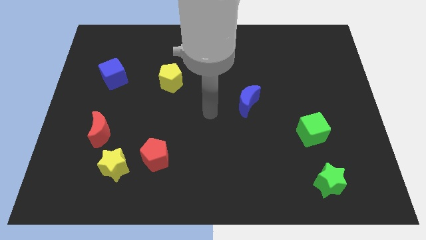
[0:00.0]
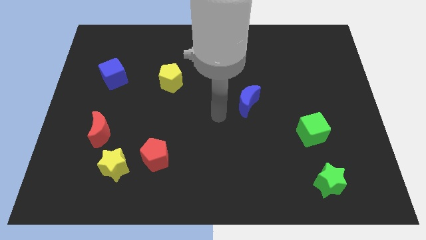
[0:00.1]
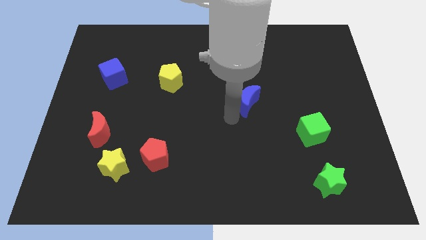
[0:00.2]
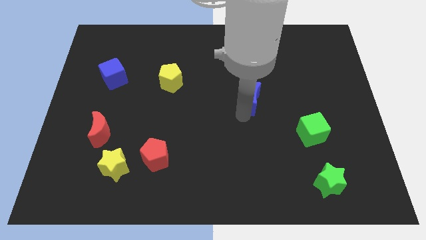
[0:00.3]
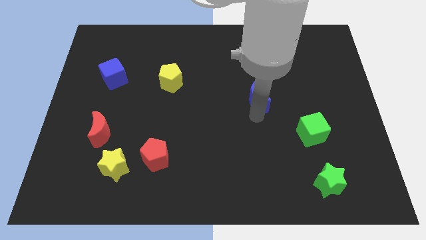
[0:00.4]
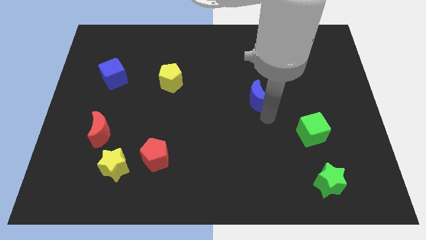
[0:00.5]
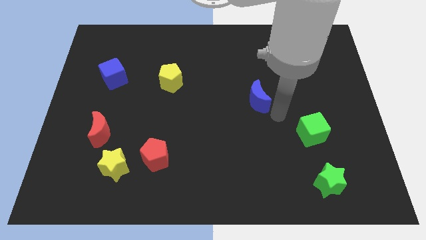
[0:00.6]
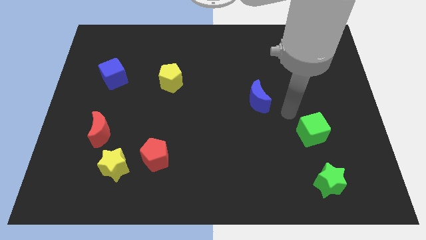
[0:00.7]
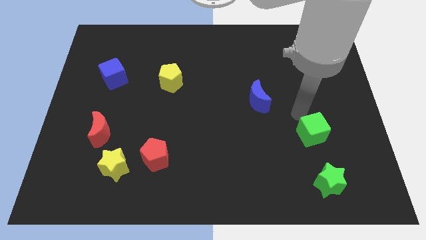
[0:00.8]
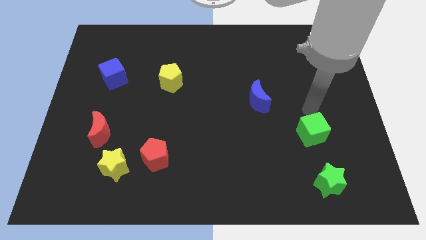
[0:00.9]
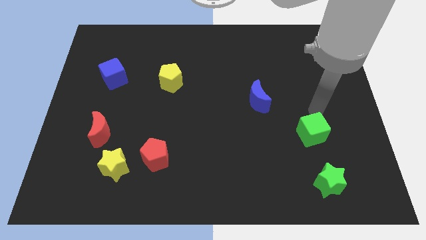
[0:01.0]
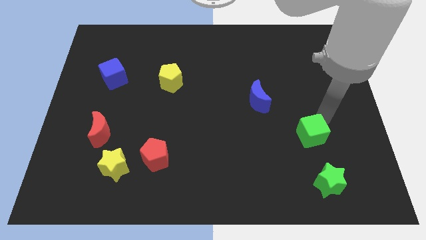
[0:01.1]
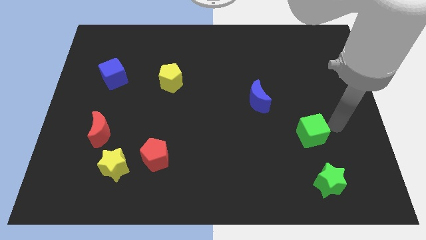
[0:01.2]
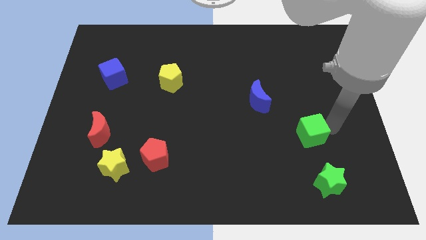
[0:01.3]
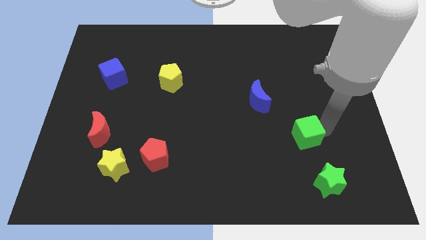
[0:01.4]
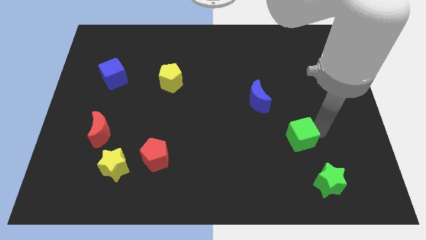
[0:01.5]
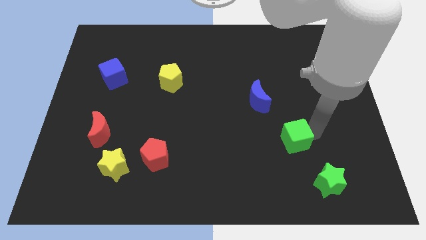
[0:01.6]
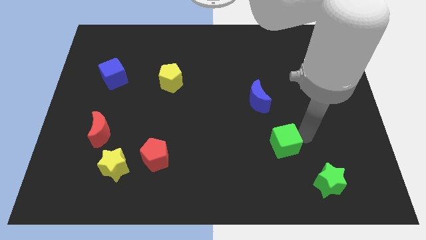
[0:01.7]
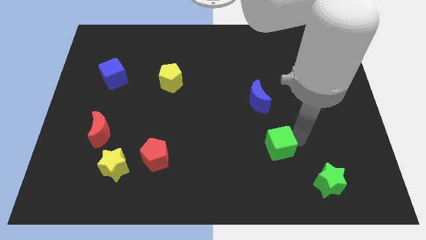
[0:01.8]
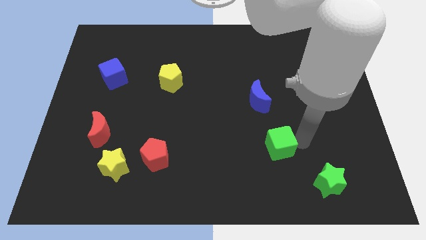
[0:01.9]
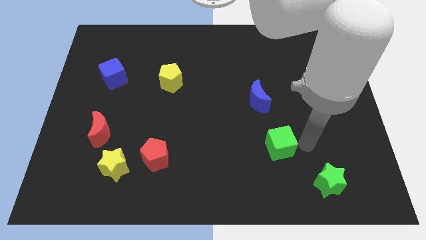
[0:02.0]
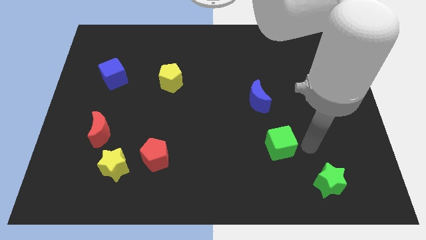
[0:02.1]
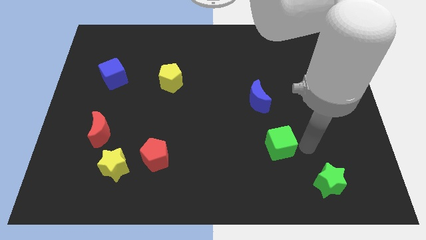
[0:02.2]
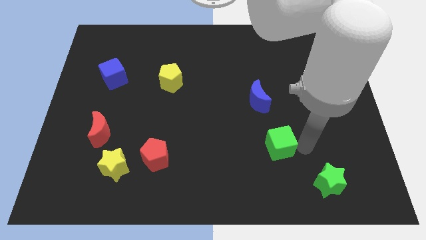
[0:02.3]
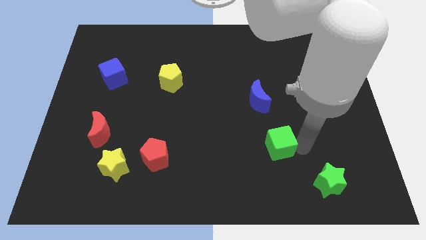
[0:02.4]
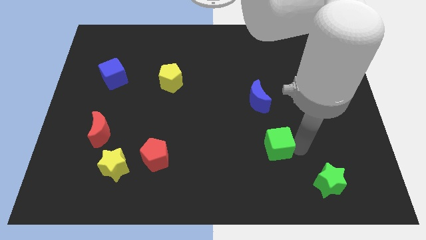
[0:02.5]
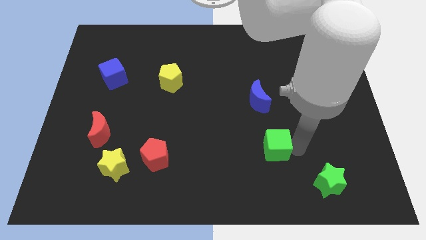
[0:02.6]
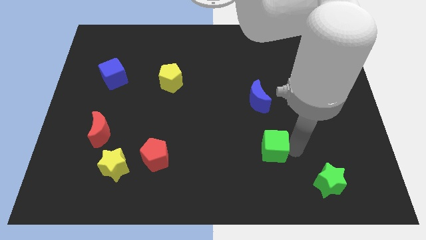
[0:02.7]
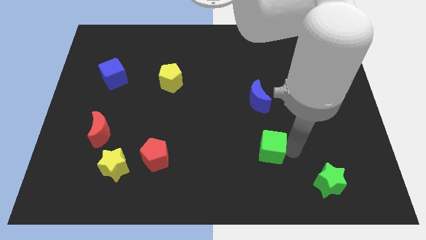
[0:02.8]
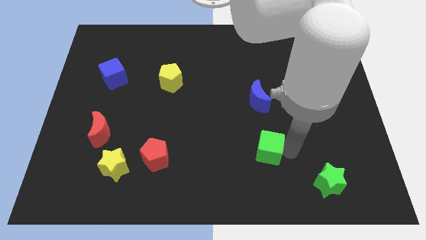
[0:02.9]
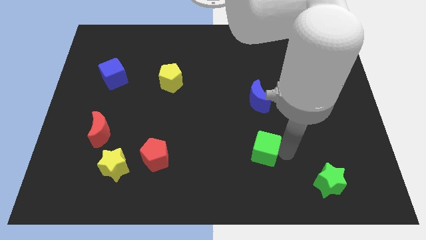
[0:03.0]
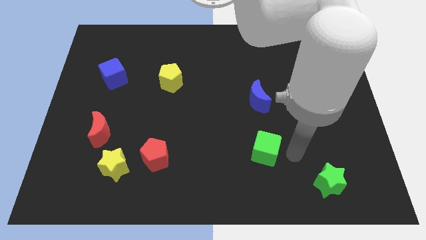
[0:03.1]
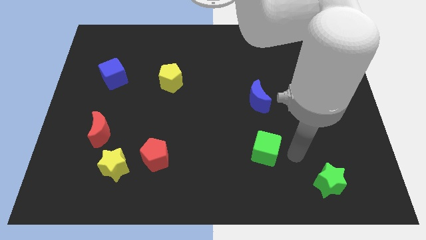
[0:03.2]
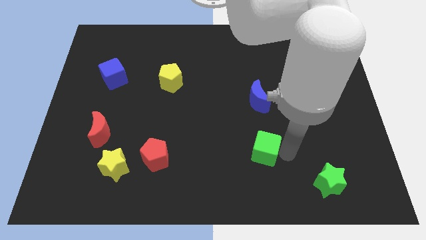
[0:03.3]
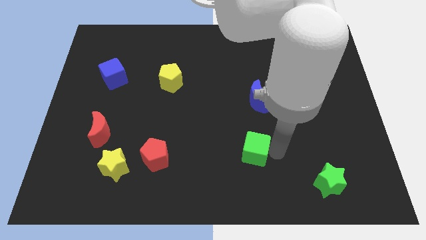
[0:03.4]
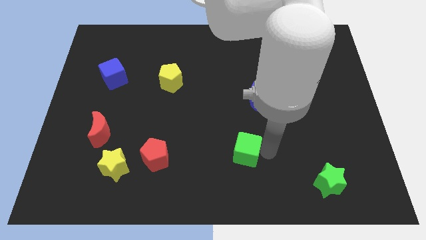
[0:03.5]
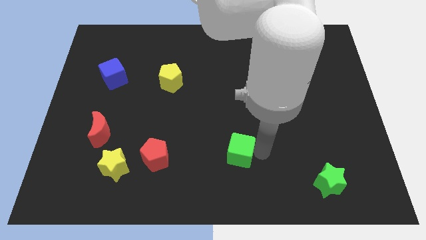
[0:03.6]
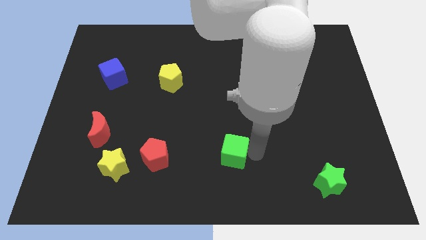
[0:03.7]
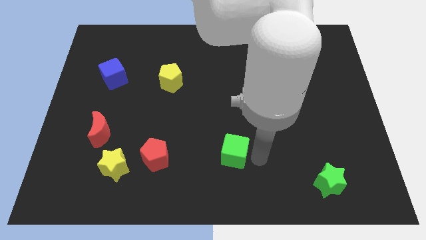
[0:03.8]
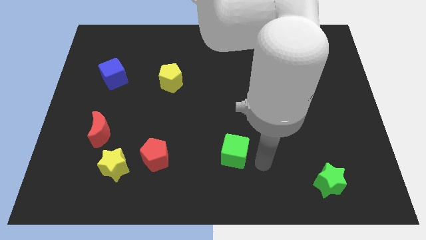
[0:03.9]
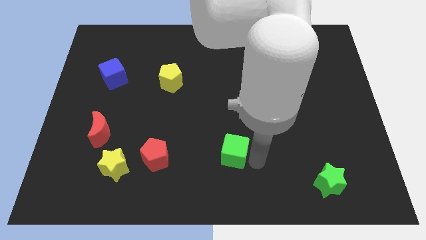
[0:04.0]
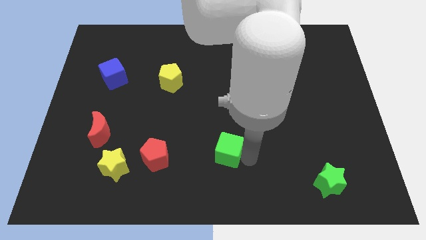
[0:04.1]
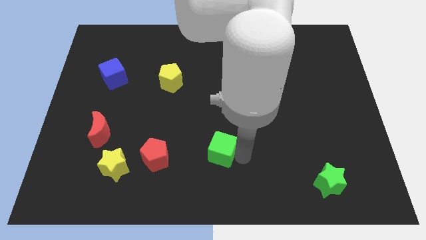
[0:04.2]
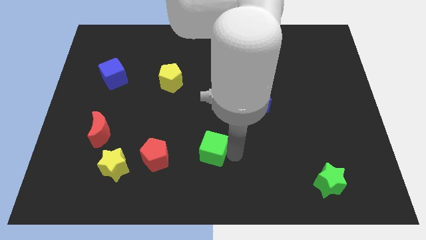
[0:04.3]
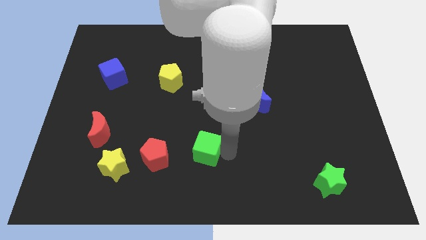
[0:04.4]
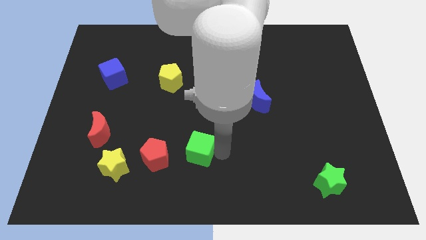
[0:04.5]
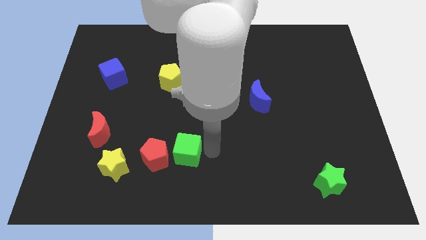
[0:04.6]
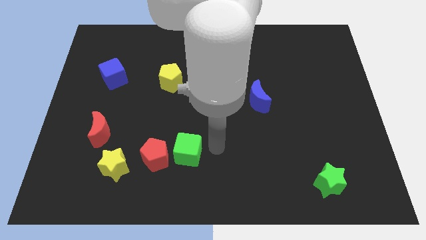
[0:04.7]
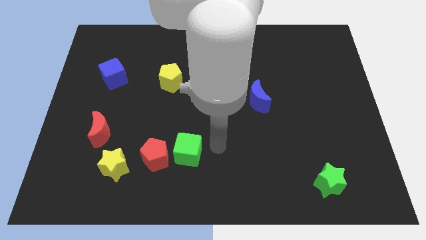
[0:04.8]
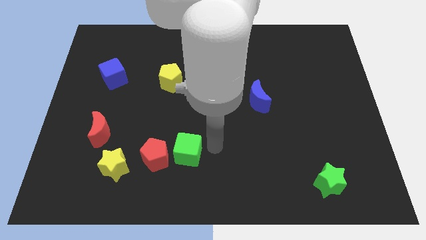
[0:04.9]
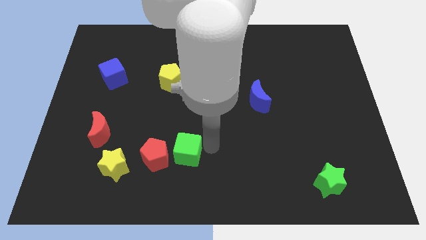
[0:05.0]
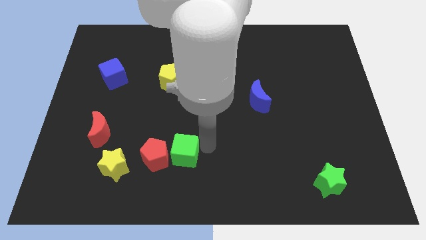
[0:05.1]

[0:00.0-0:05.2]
push the green cube next to the red pentagon

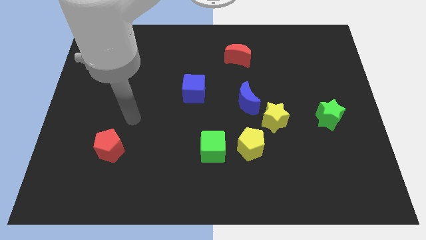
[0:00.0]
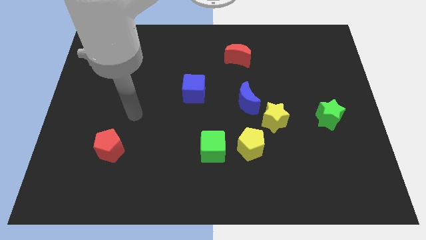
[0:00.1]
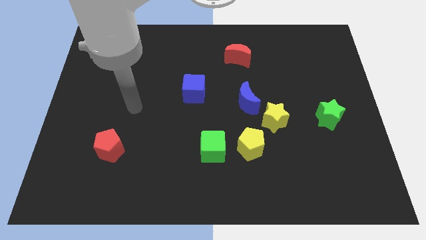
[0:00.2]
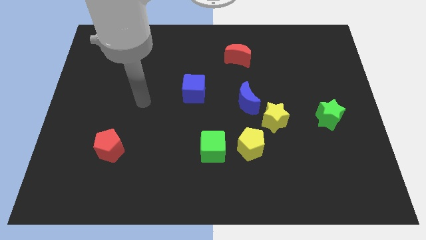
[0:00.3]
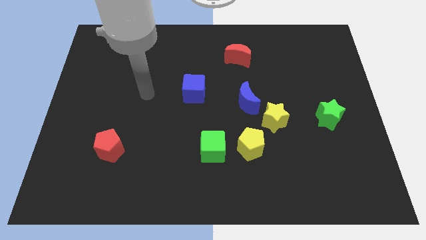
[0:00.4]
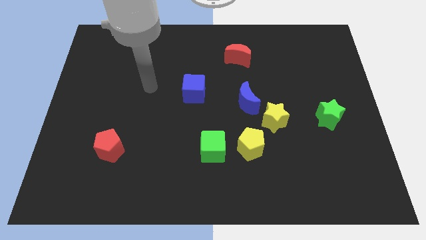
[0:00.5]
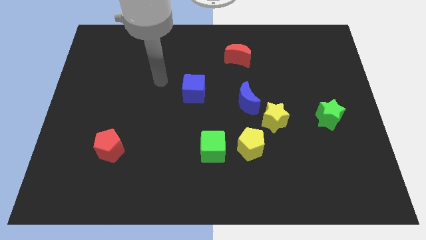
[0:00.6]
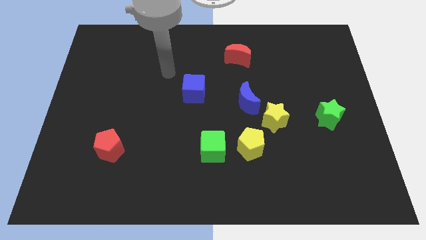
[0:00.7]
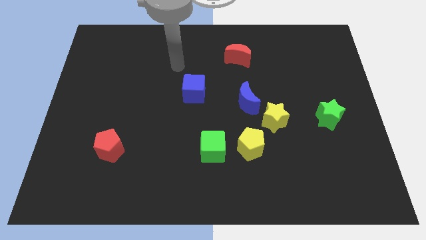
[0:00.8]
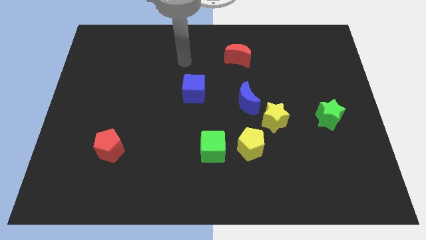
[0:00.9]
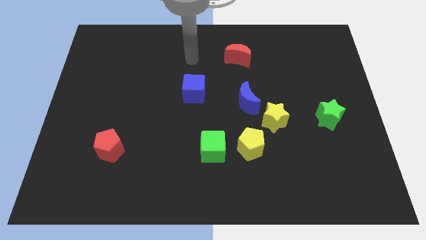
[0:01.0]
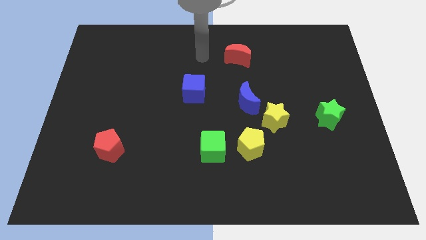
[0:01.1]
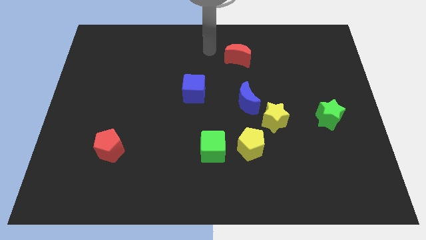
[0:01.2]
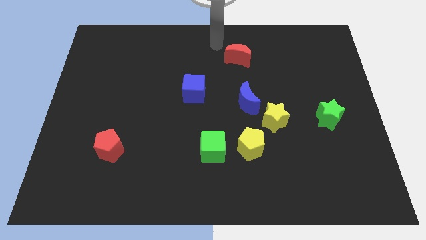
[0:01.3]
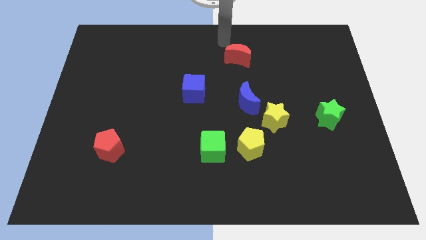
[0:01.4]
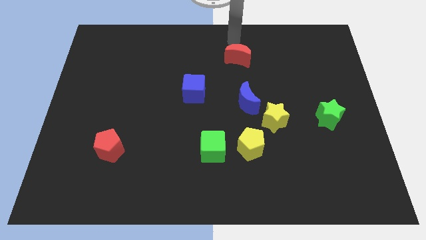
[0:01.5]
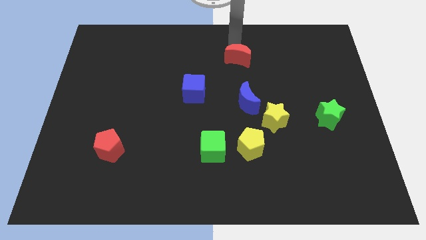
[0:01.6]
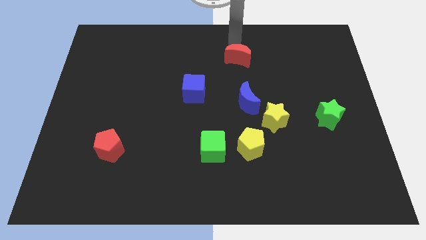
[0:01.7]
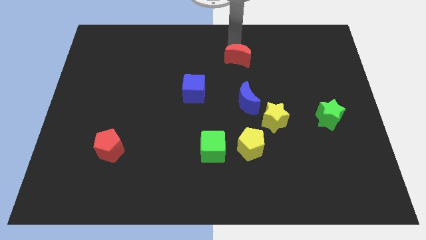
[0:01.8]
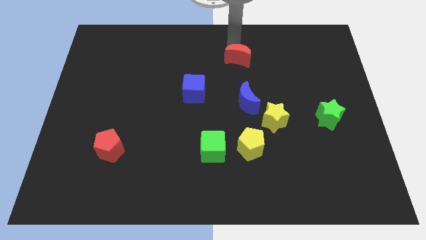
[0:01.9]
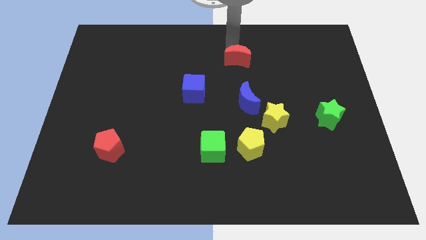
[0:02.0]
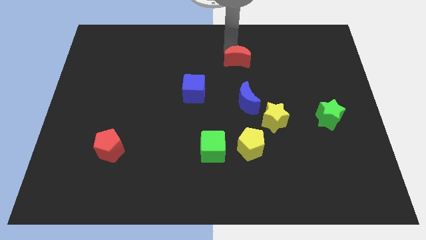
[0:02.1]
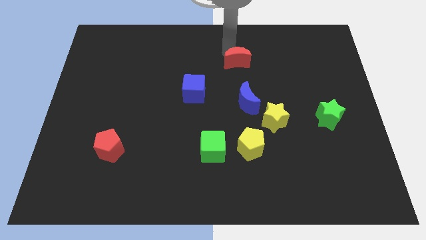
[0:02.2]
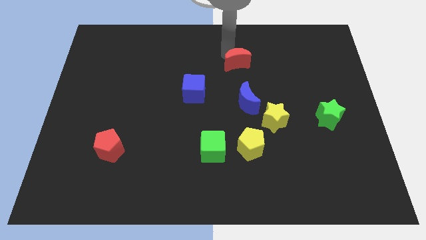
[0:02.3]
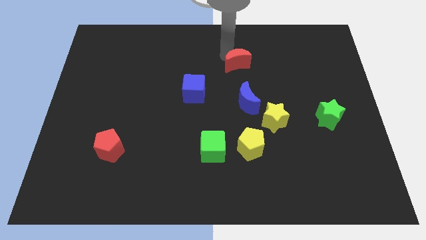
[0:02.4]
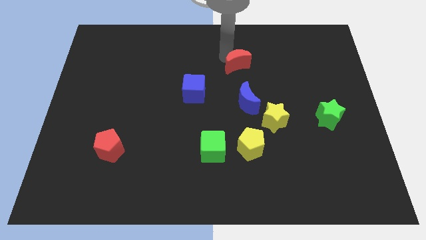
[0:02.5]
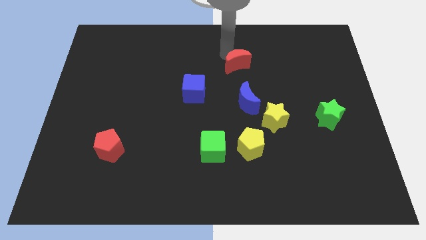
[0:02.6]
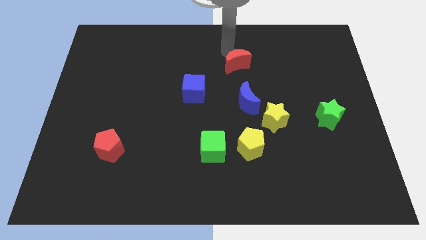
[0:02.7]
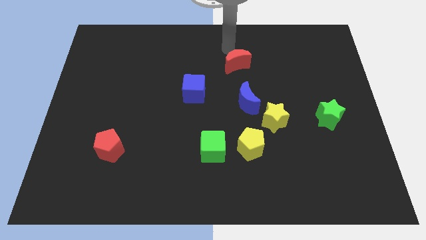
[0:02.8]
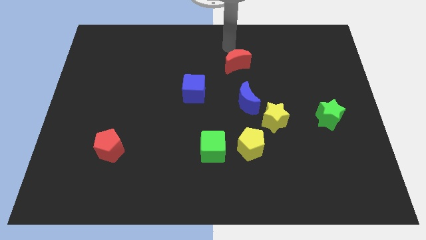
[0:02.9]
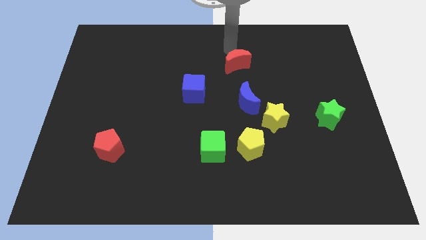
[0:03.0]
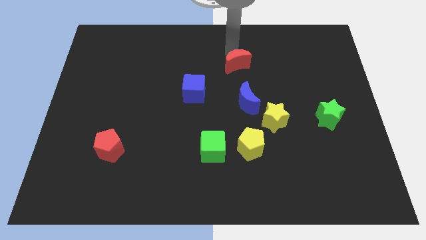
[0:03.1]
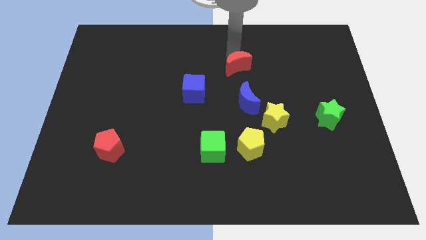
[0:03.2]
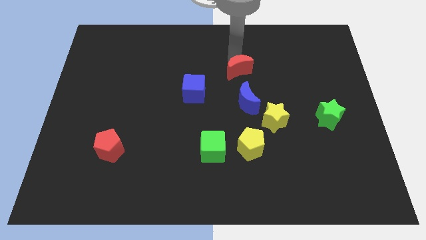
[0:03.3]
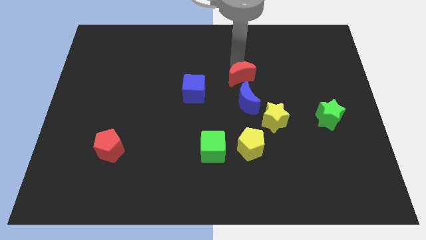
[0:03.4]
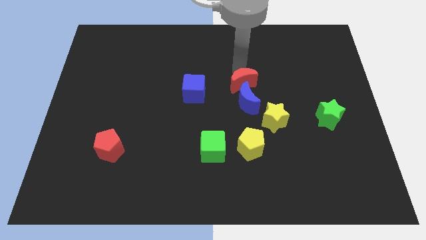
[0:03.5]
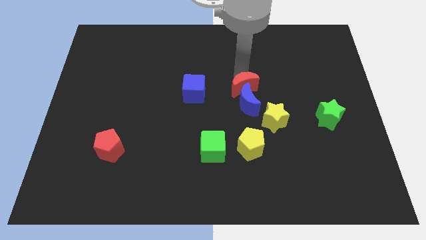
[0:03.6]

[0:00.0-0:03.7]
put the red moon close to the blue moon
